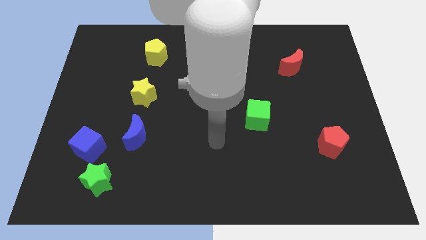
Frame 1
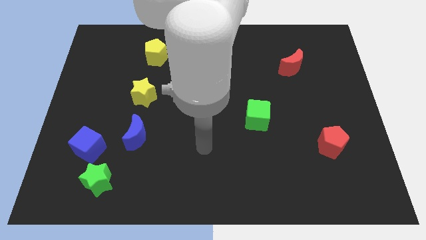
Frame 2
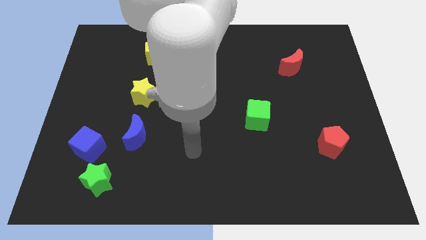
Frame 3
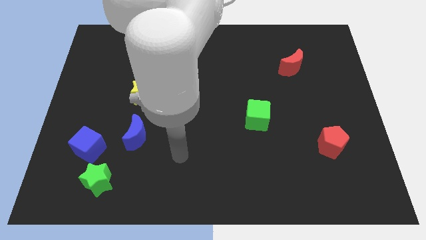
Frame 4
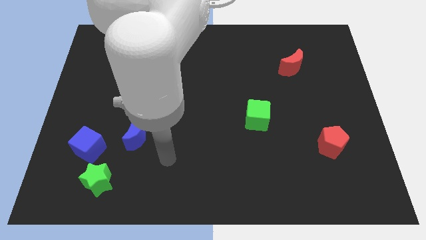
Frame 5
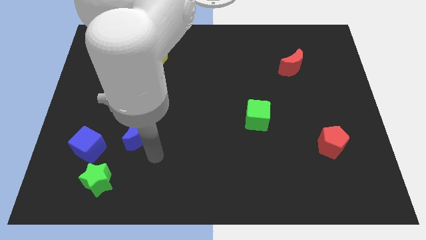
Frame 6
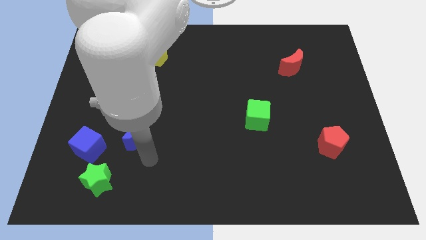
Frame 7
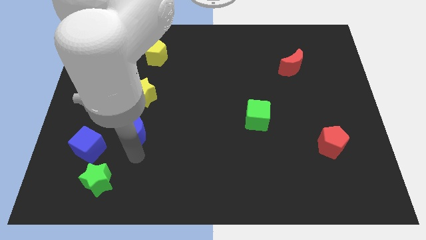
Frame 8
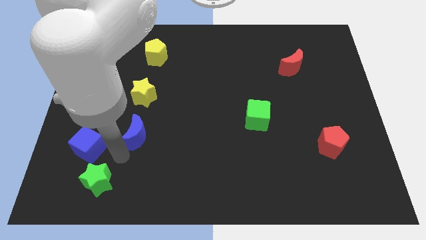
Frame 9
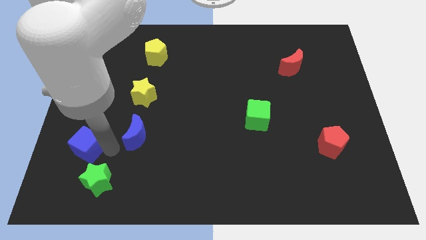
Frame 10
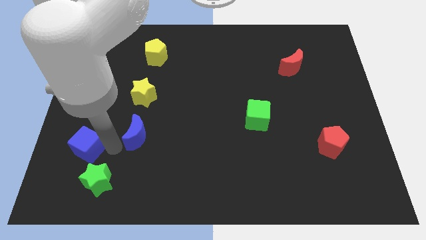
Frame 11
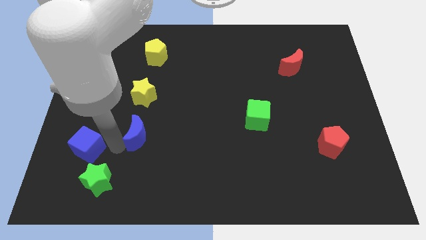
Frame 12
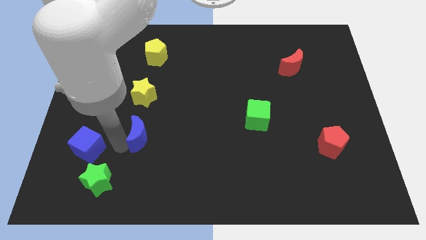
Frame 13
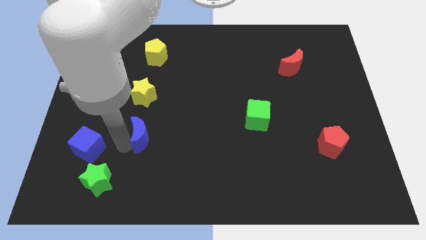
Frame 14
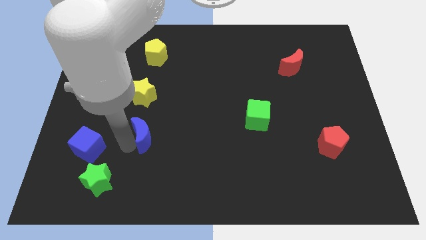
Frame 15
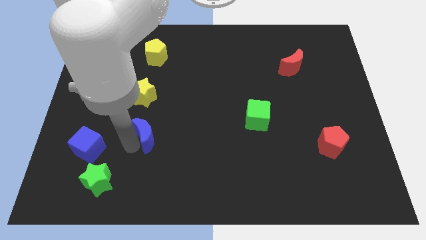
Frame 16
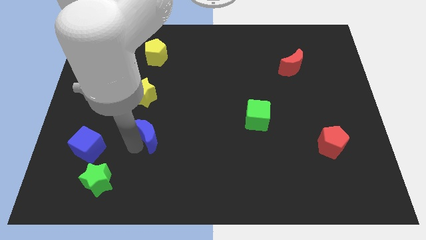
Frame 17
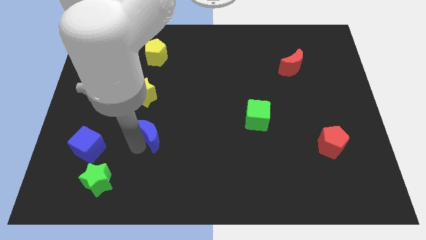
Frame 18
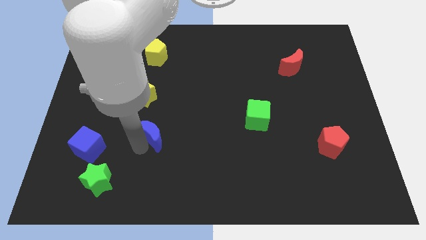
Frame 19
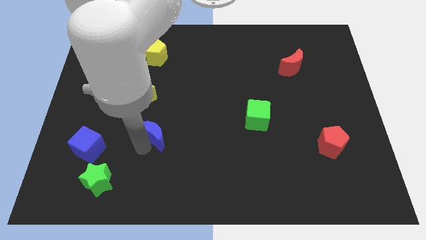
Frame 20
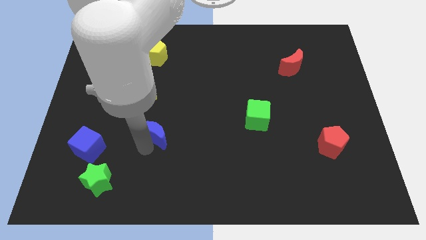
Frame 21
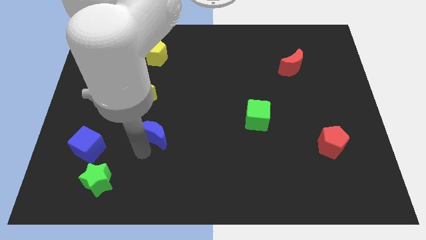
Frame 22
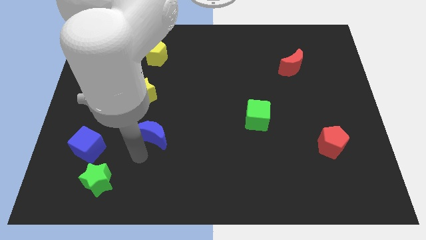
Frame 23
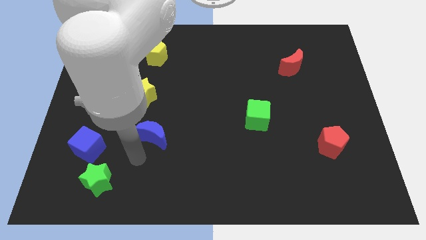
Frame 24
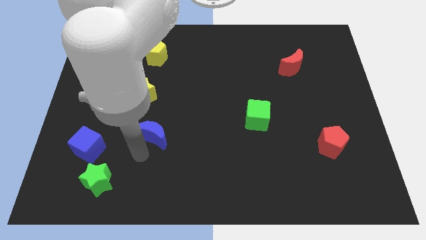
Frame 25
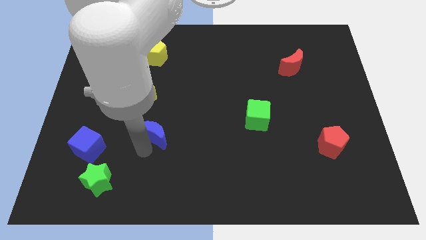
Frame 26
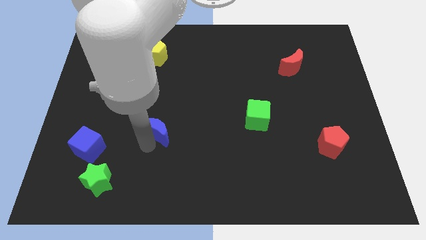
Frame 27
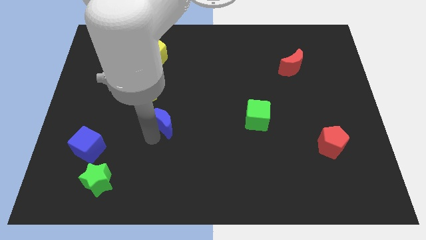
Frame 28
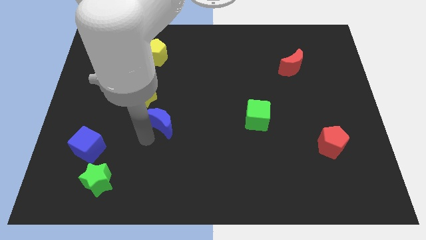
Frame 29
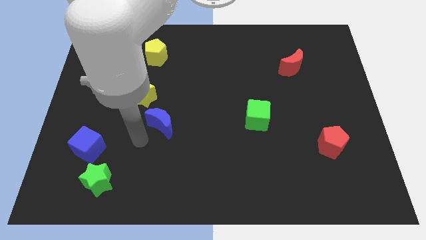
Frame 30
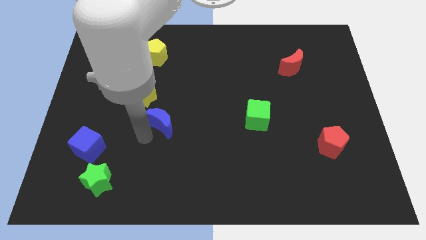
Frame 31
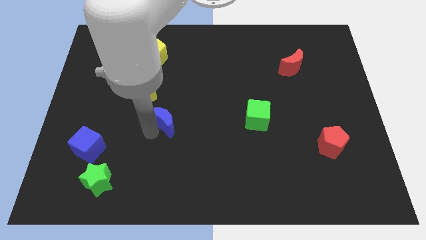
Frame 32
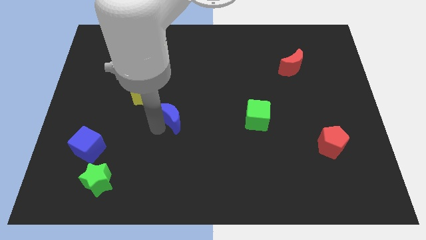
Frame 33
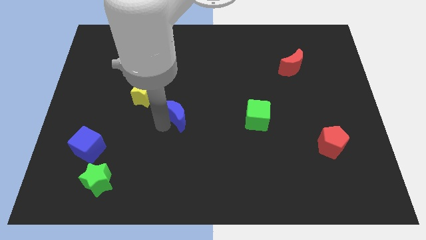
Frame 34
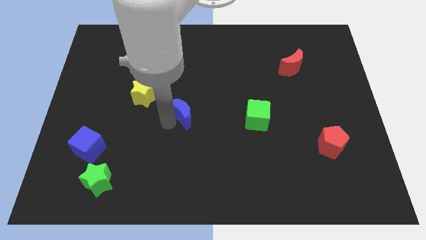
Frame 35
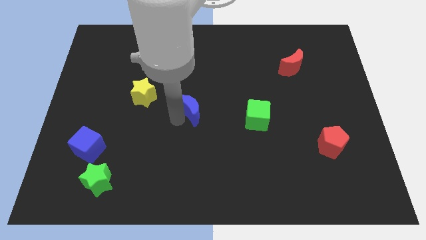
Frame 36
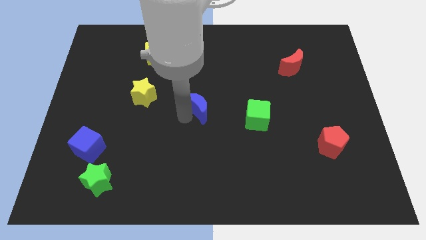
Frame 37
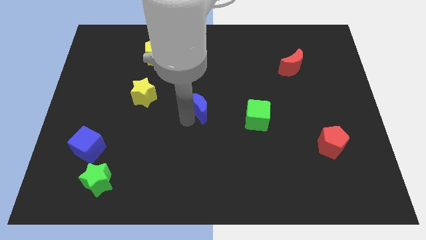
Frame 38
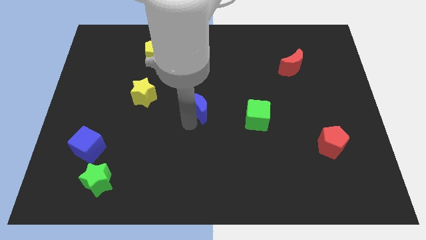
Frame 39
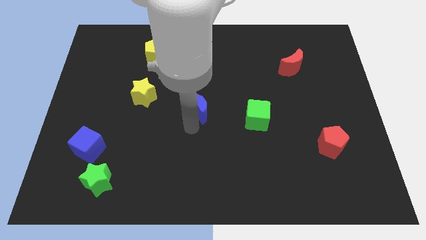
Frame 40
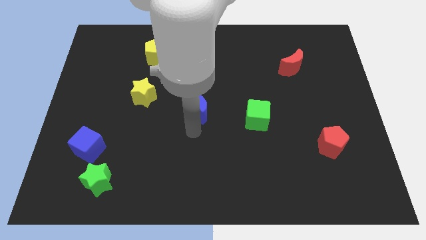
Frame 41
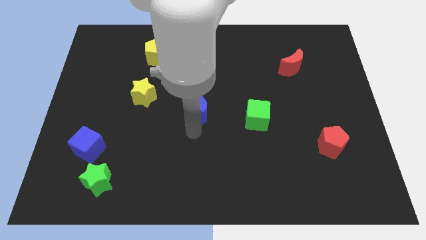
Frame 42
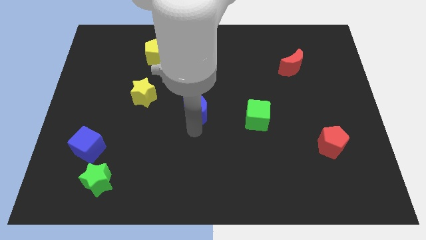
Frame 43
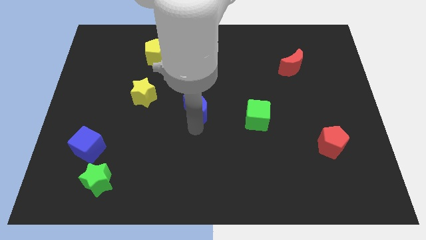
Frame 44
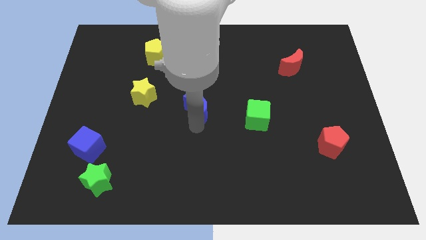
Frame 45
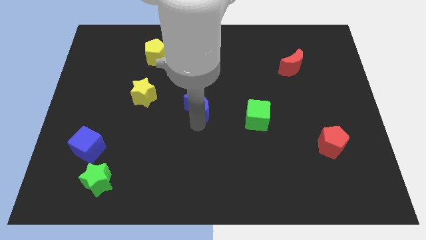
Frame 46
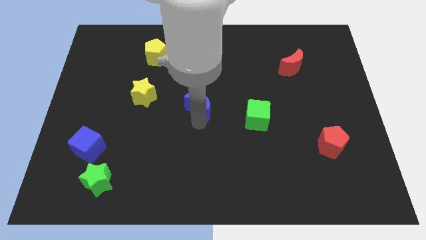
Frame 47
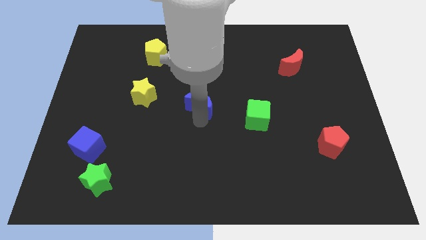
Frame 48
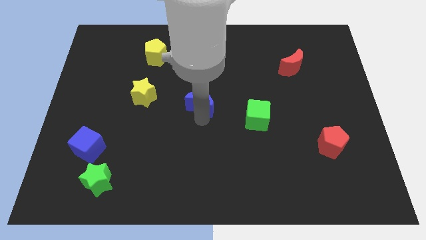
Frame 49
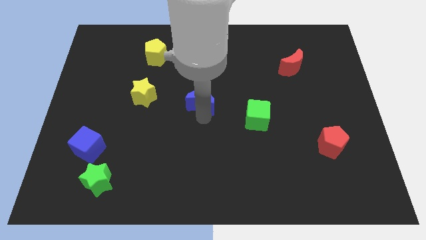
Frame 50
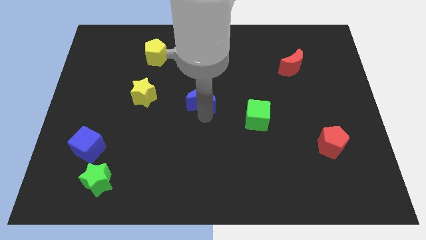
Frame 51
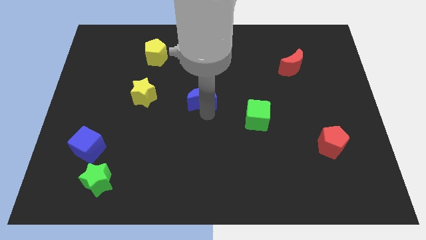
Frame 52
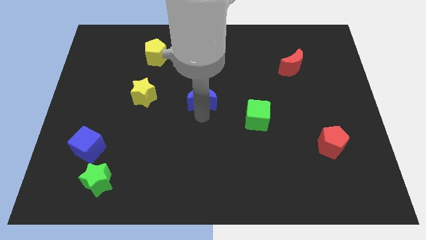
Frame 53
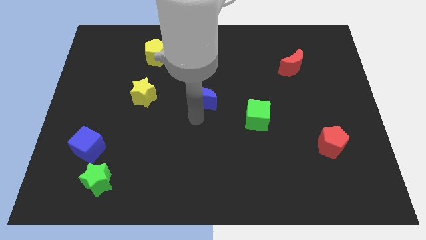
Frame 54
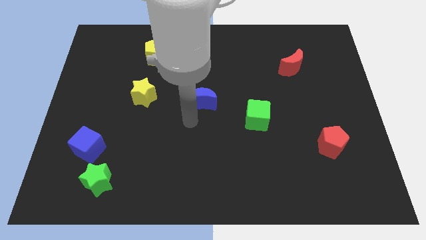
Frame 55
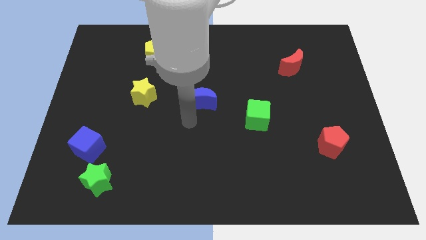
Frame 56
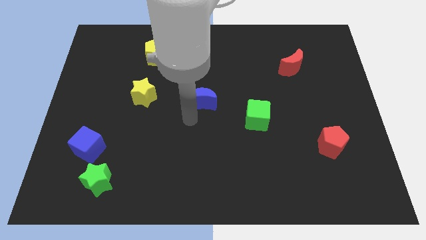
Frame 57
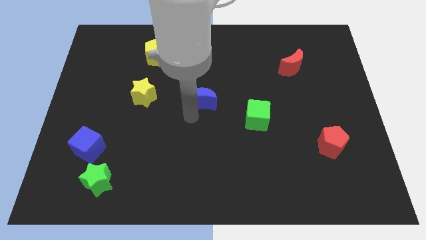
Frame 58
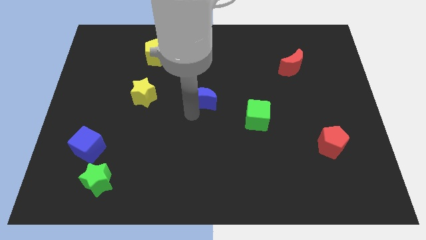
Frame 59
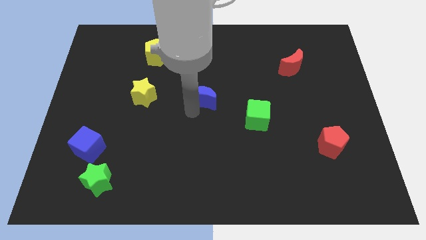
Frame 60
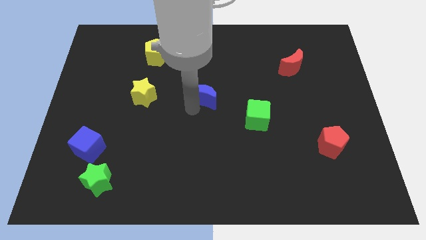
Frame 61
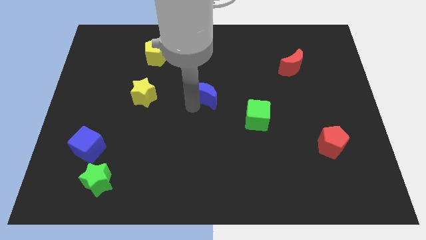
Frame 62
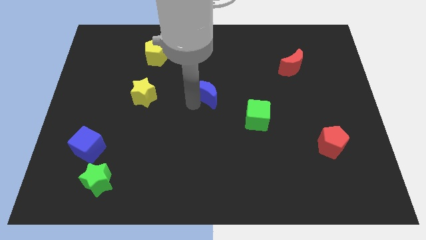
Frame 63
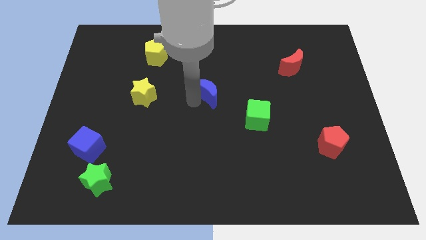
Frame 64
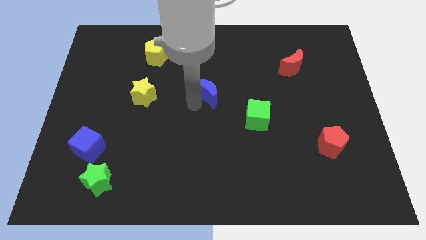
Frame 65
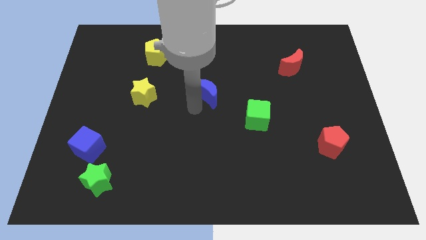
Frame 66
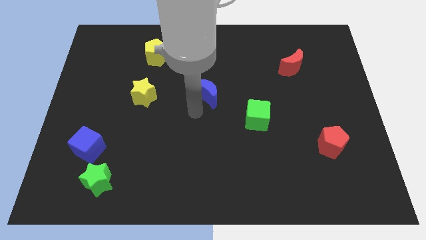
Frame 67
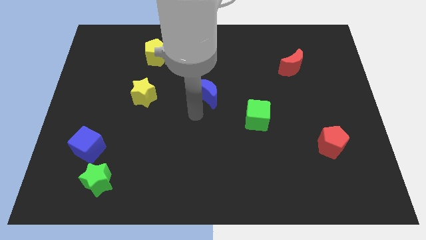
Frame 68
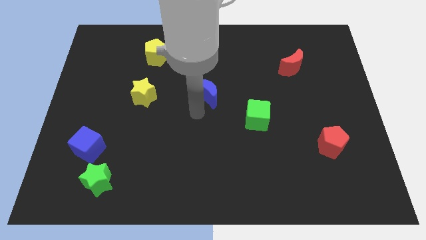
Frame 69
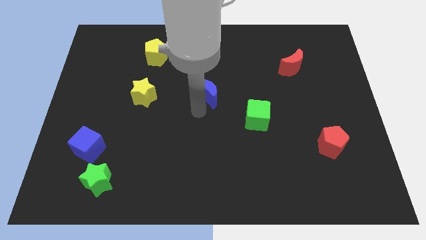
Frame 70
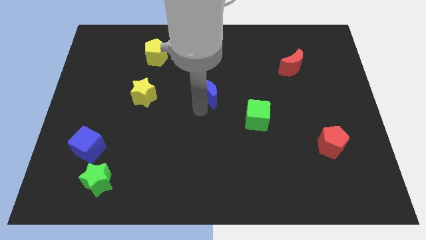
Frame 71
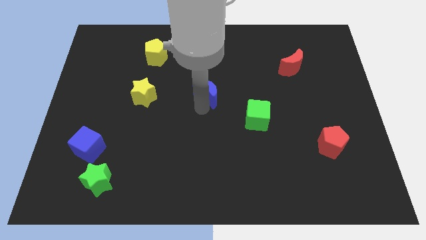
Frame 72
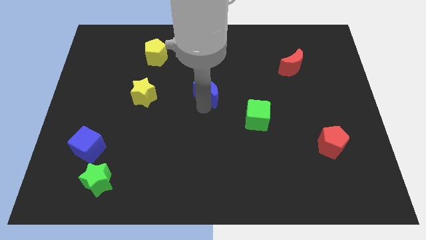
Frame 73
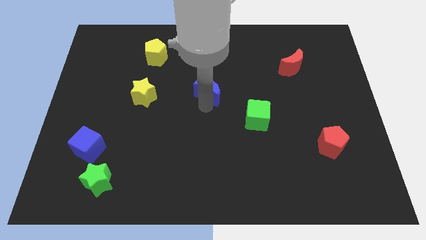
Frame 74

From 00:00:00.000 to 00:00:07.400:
slide the blue moon upwards and to the right diagonally

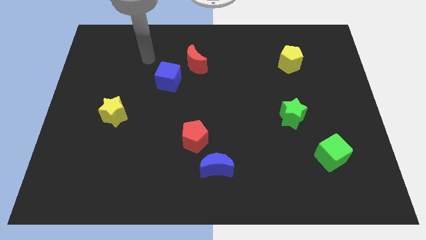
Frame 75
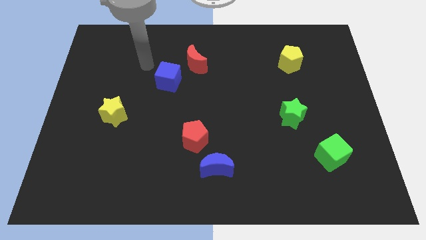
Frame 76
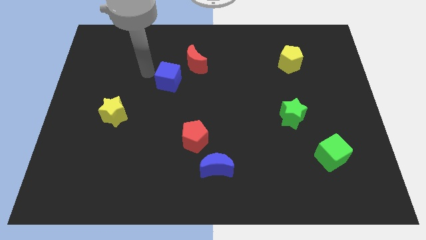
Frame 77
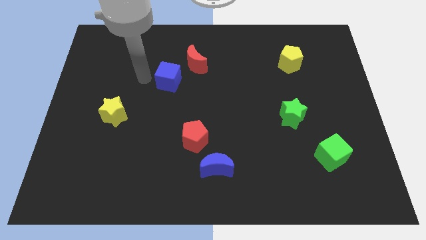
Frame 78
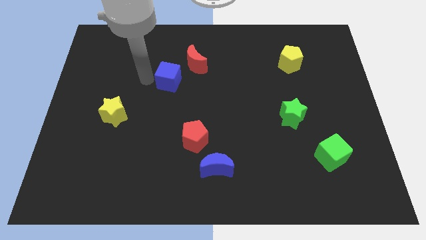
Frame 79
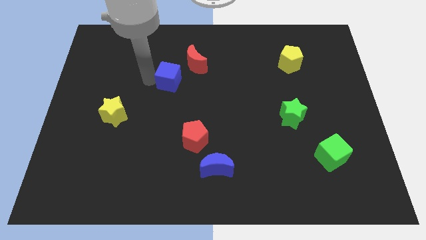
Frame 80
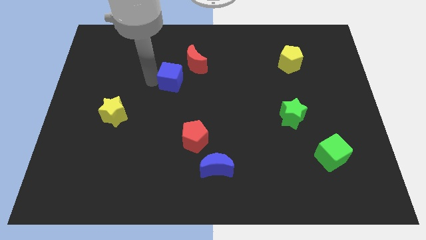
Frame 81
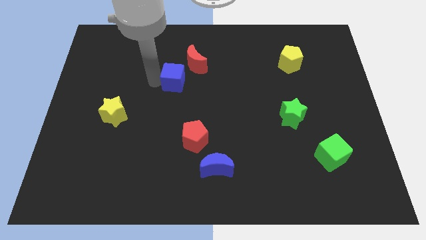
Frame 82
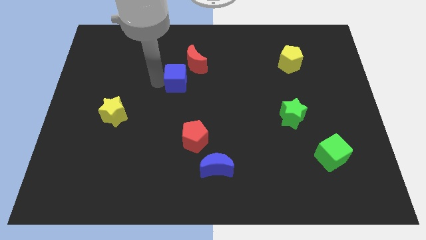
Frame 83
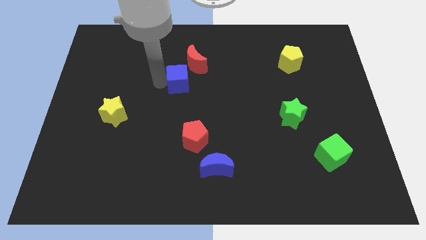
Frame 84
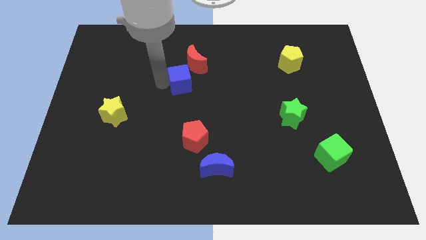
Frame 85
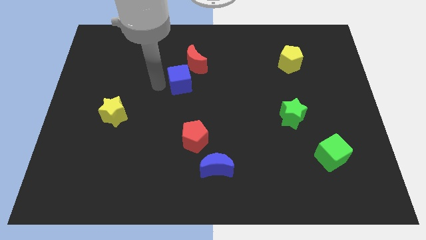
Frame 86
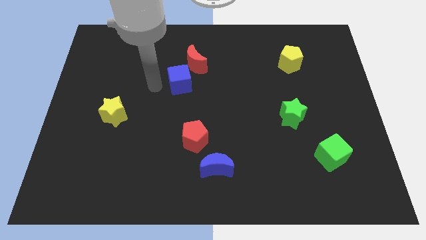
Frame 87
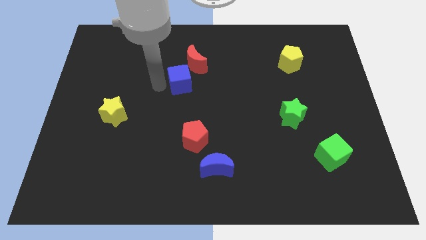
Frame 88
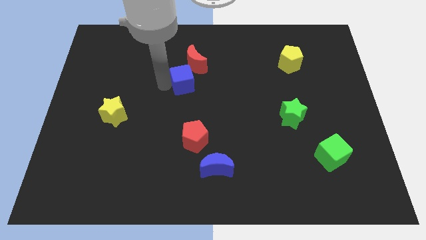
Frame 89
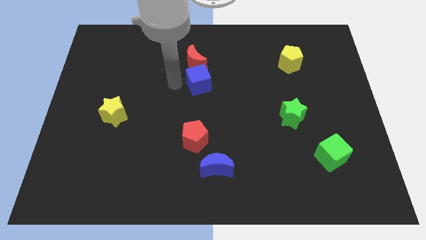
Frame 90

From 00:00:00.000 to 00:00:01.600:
slightly push the blue cube right
